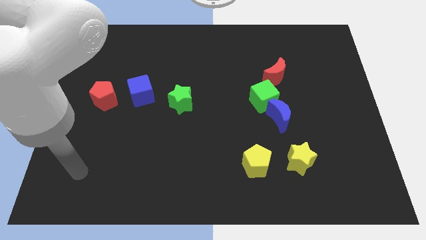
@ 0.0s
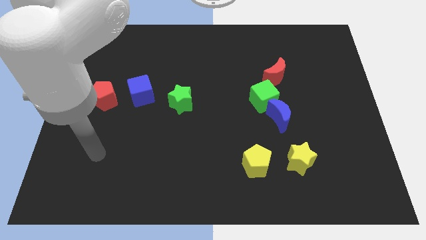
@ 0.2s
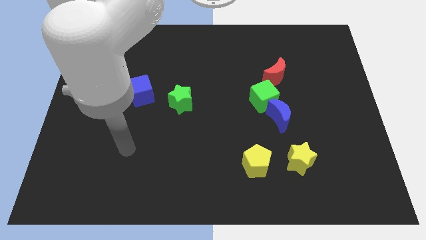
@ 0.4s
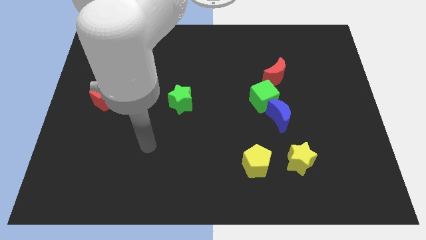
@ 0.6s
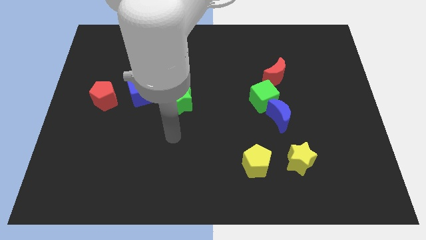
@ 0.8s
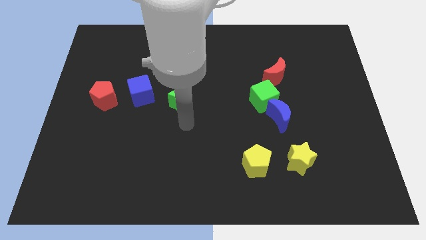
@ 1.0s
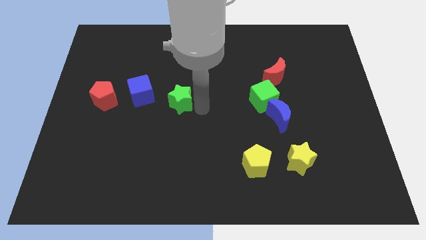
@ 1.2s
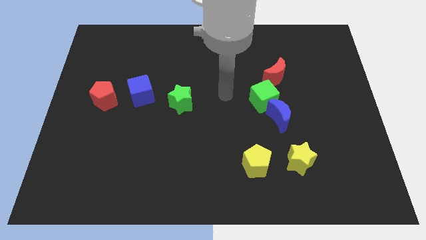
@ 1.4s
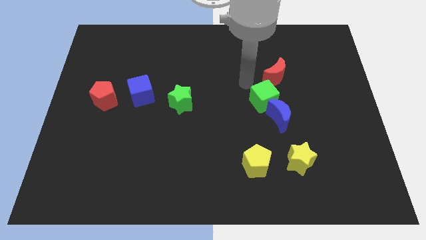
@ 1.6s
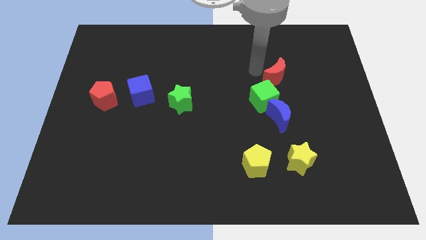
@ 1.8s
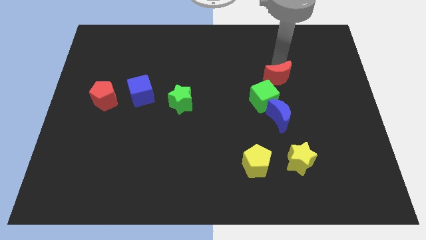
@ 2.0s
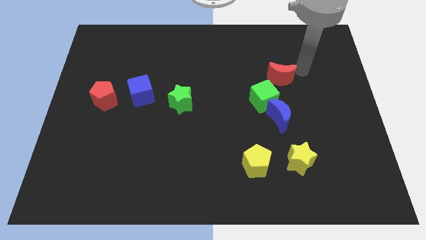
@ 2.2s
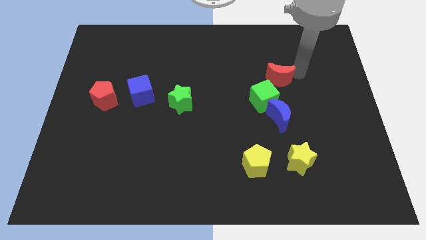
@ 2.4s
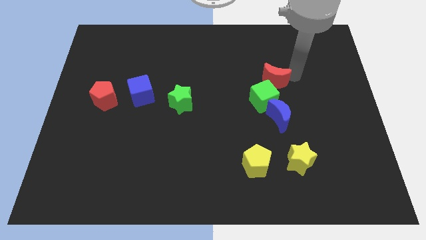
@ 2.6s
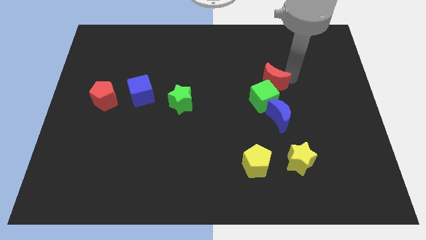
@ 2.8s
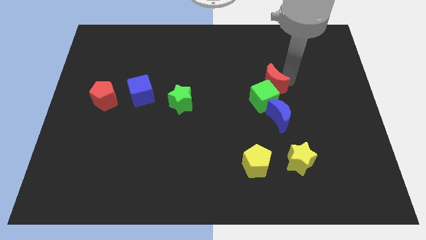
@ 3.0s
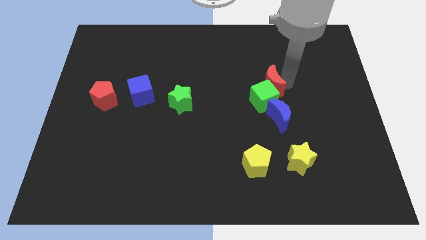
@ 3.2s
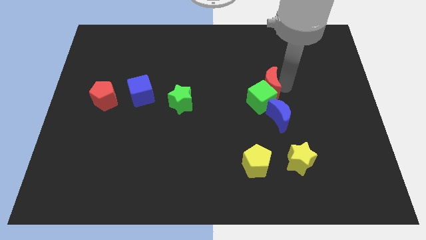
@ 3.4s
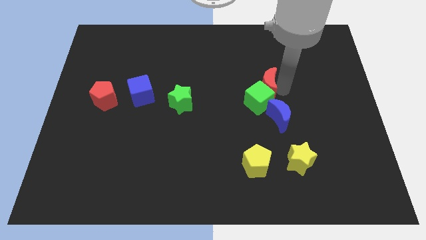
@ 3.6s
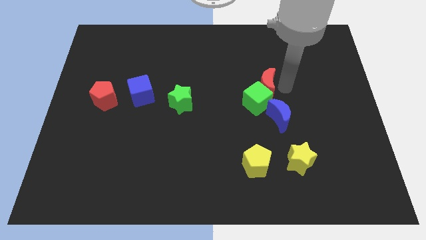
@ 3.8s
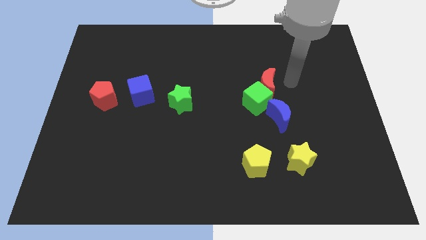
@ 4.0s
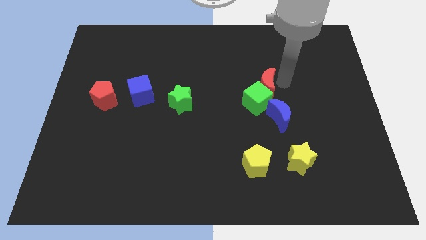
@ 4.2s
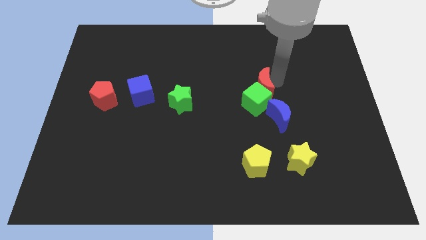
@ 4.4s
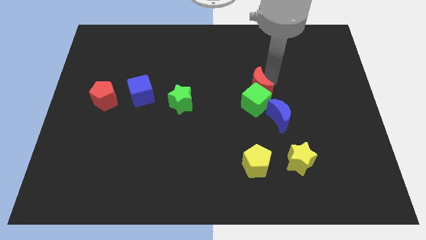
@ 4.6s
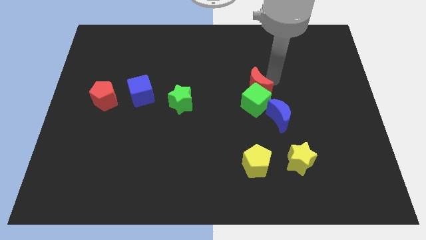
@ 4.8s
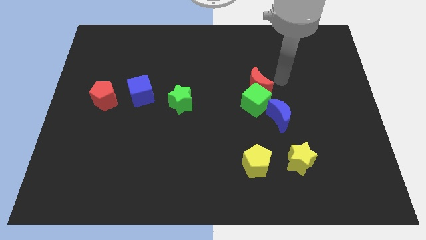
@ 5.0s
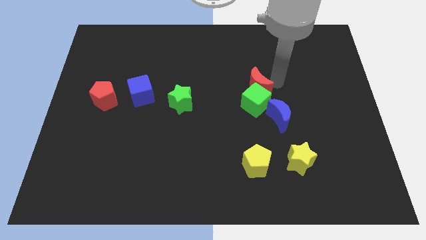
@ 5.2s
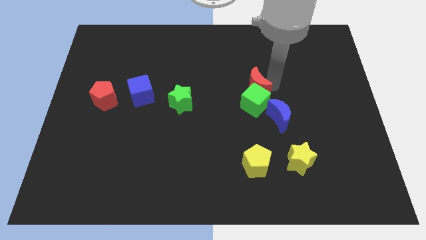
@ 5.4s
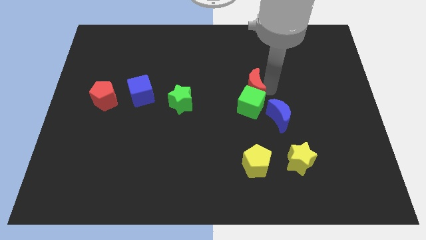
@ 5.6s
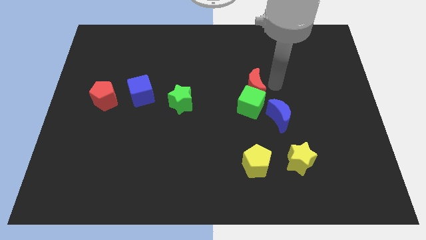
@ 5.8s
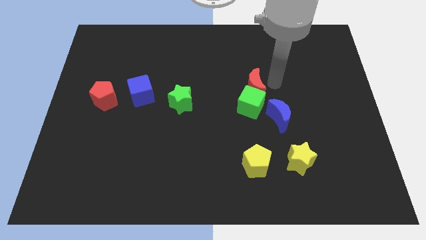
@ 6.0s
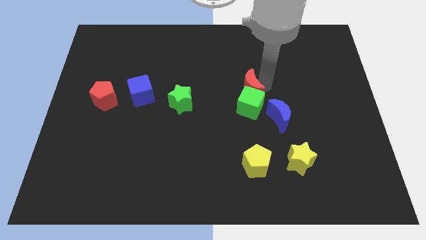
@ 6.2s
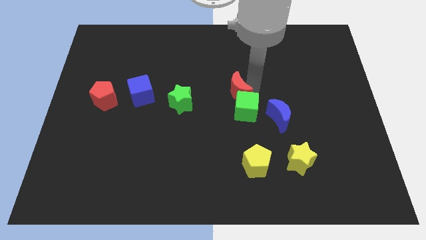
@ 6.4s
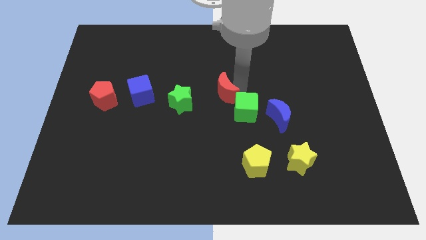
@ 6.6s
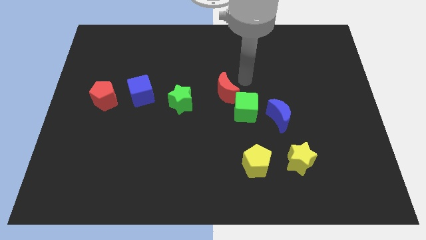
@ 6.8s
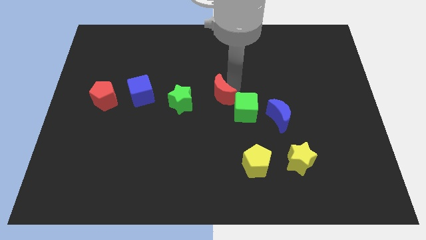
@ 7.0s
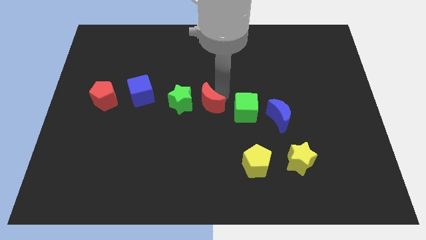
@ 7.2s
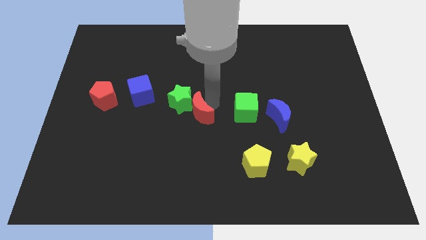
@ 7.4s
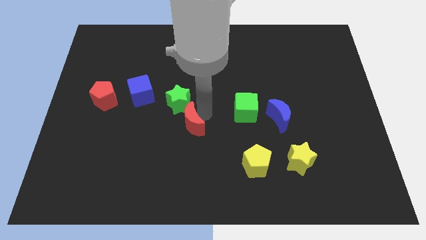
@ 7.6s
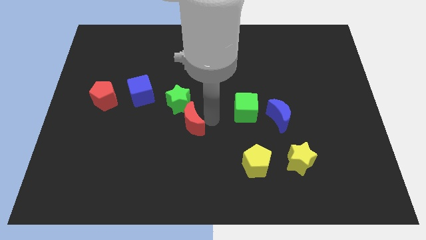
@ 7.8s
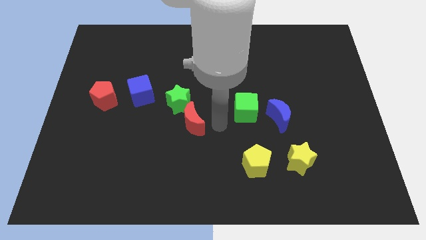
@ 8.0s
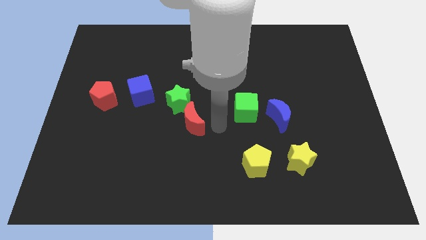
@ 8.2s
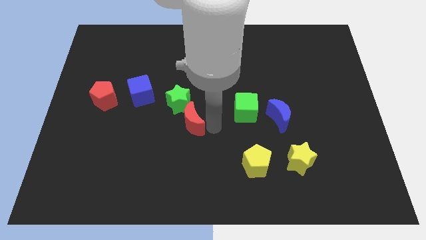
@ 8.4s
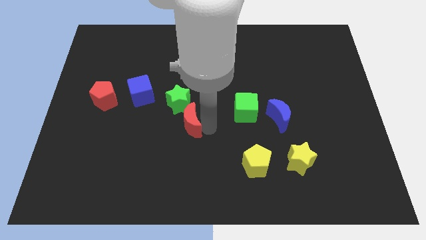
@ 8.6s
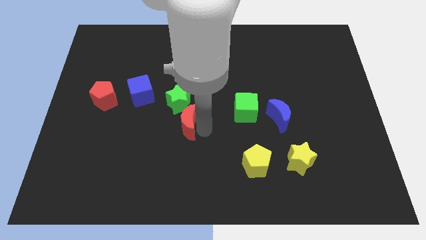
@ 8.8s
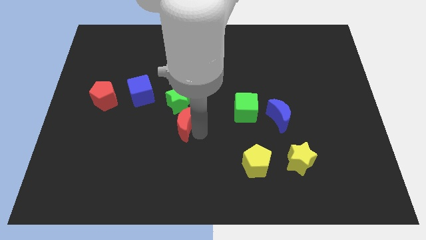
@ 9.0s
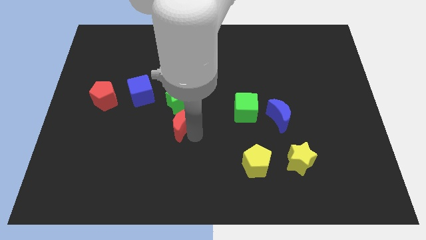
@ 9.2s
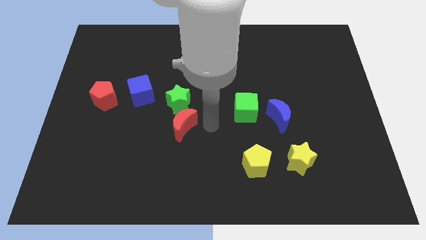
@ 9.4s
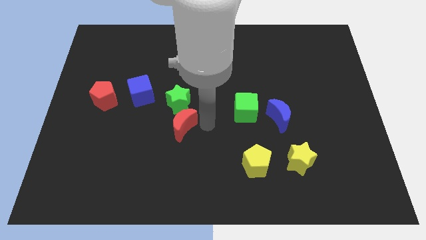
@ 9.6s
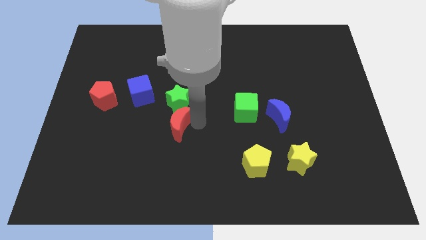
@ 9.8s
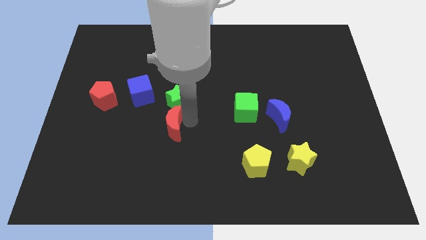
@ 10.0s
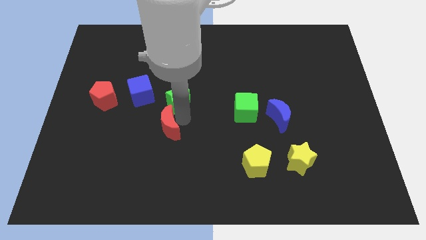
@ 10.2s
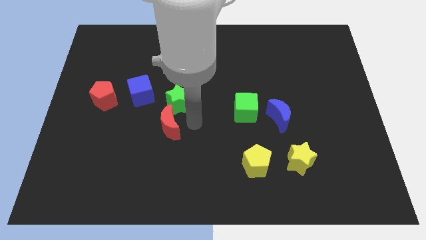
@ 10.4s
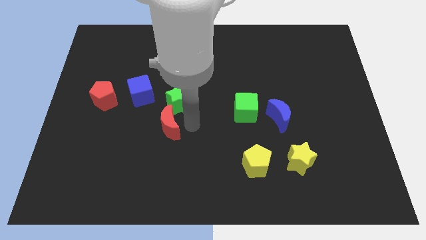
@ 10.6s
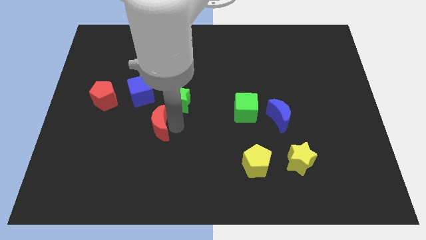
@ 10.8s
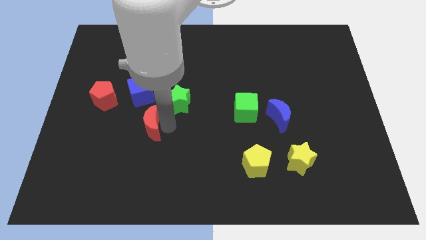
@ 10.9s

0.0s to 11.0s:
slide the red moon below the blue cube

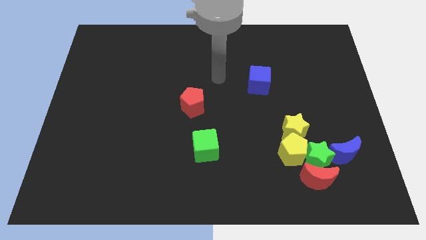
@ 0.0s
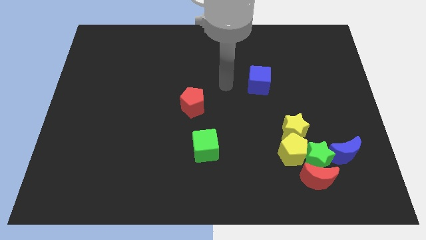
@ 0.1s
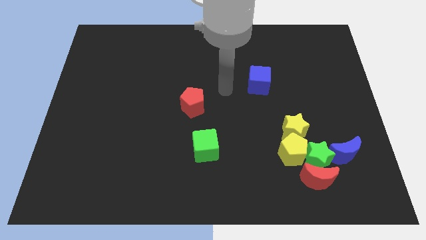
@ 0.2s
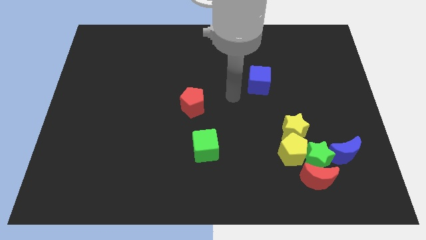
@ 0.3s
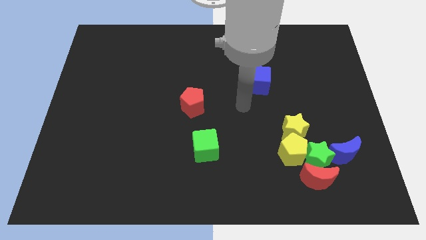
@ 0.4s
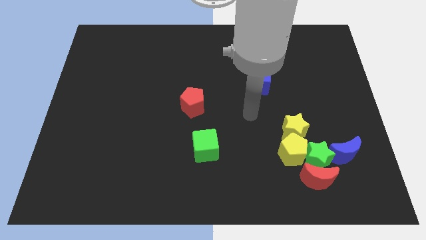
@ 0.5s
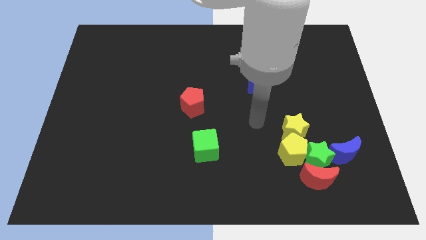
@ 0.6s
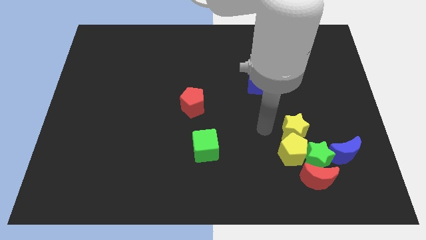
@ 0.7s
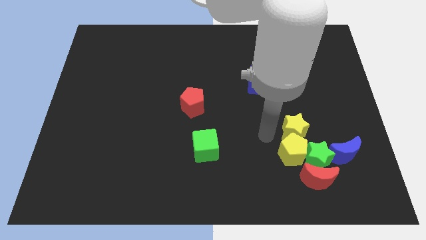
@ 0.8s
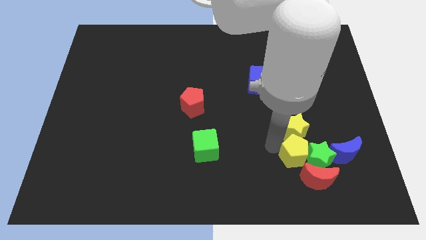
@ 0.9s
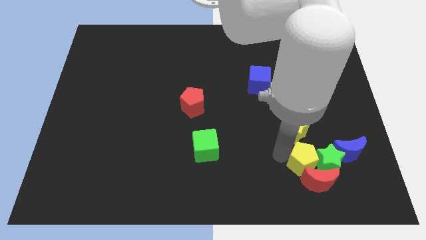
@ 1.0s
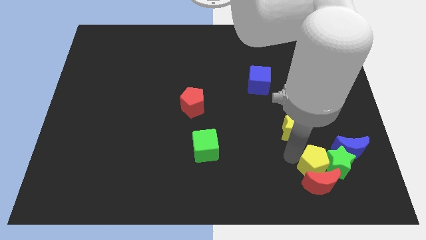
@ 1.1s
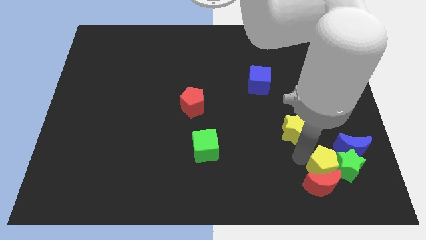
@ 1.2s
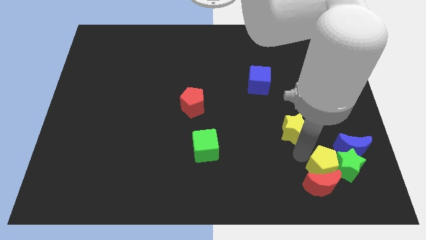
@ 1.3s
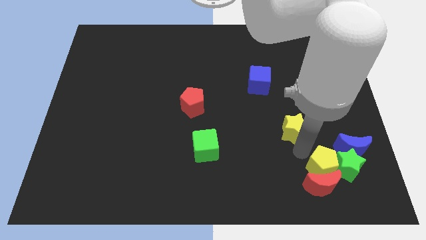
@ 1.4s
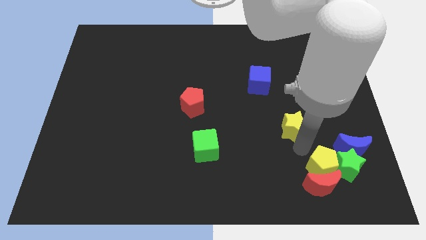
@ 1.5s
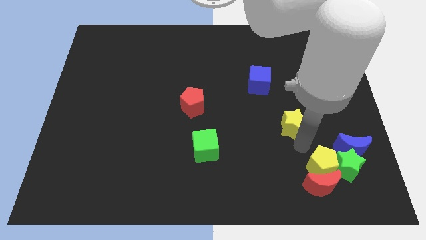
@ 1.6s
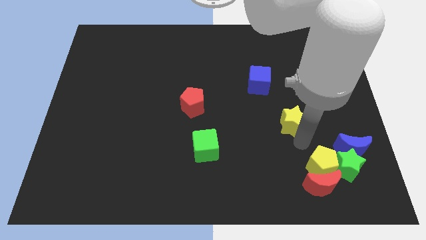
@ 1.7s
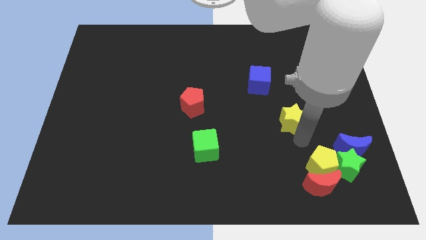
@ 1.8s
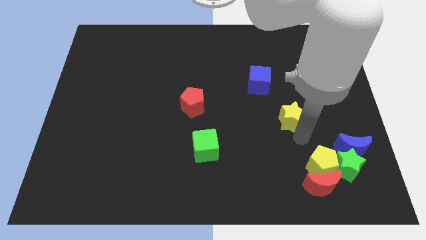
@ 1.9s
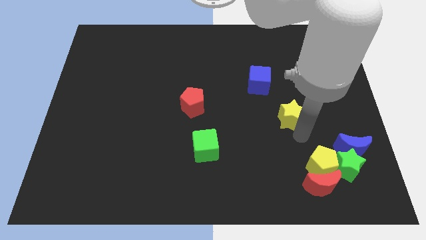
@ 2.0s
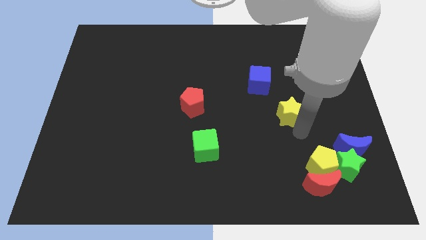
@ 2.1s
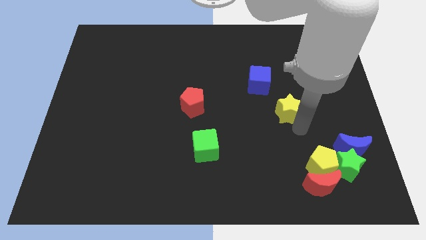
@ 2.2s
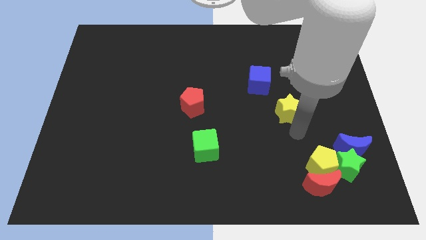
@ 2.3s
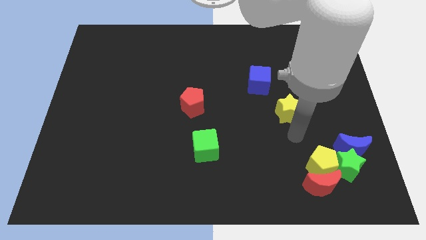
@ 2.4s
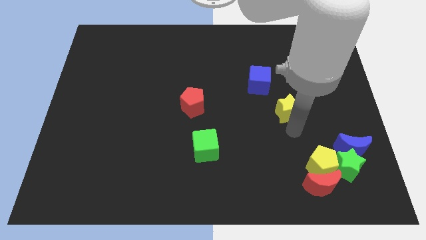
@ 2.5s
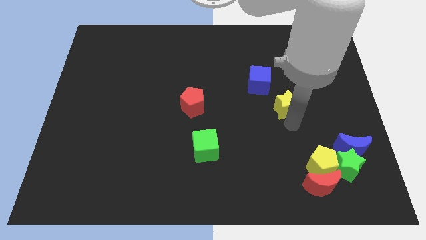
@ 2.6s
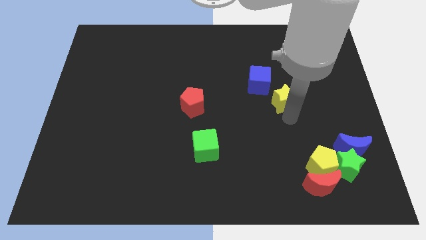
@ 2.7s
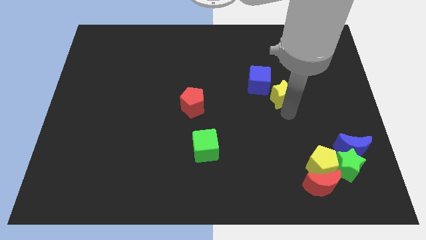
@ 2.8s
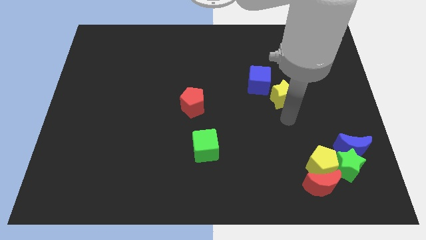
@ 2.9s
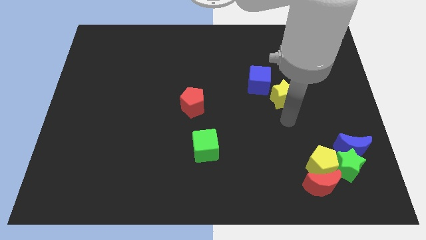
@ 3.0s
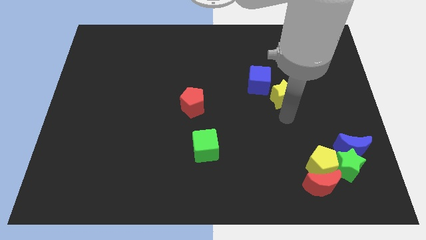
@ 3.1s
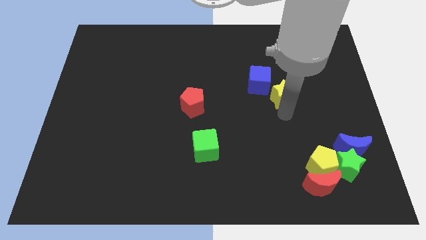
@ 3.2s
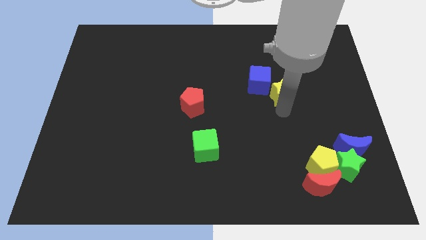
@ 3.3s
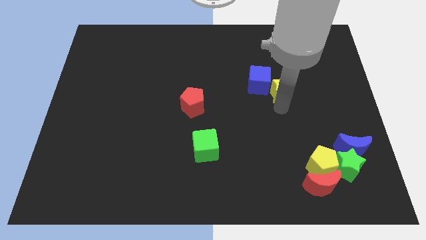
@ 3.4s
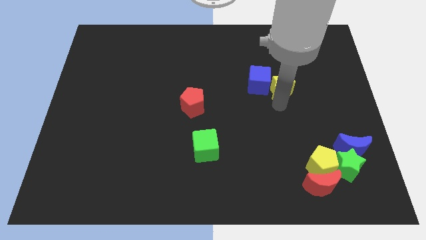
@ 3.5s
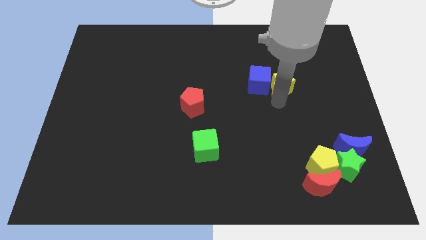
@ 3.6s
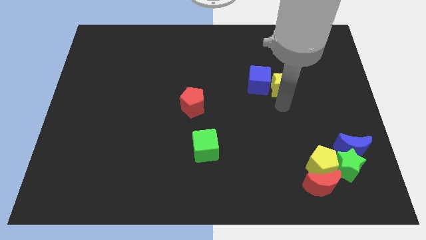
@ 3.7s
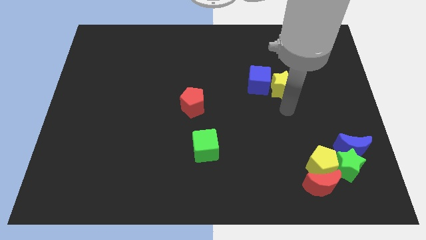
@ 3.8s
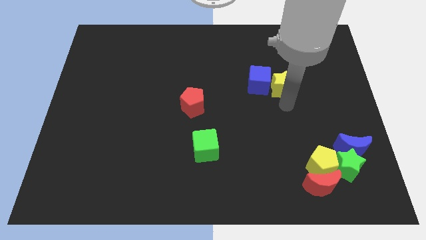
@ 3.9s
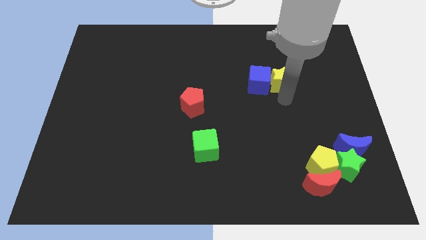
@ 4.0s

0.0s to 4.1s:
put the yellow star diagonally up and to the right of the blue cube
